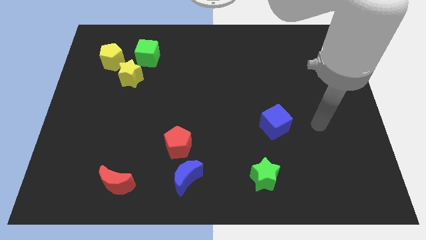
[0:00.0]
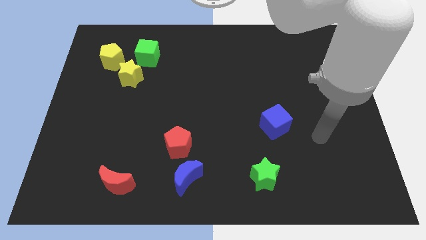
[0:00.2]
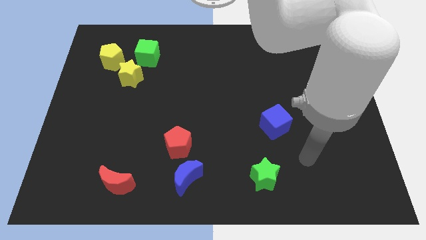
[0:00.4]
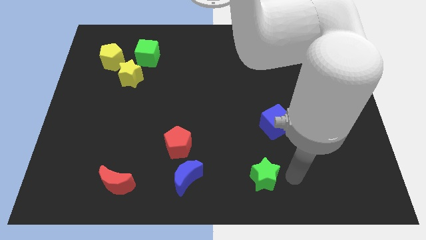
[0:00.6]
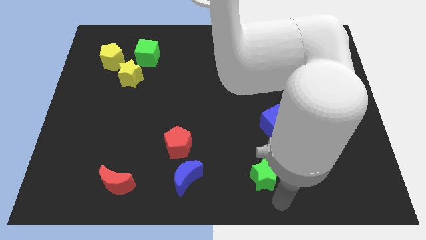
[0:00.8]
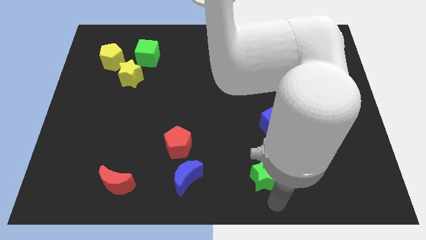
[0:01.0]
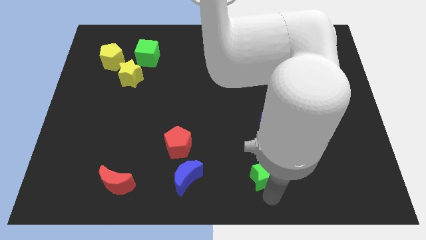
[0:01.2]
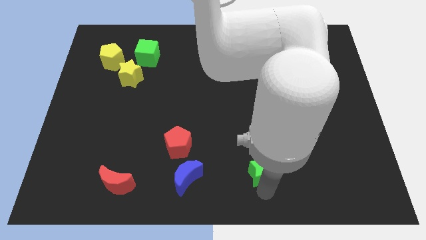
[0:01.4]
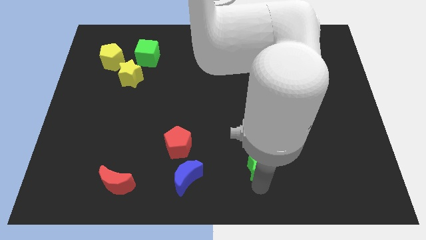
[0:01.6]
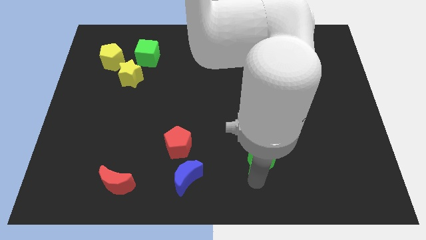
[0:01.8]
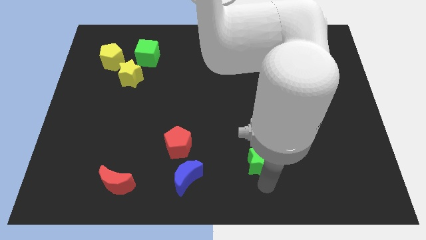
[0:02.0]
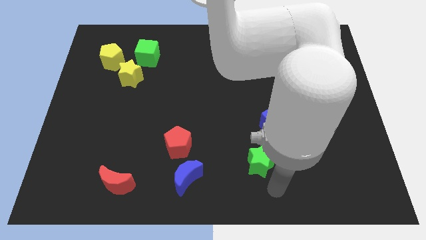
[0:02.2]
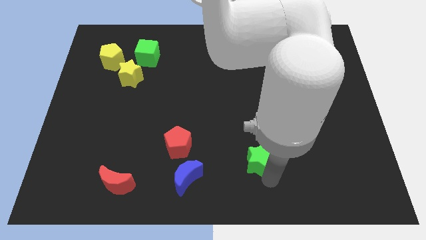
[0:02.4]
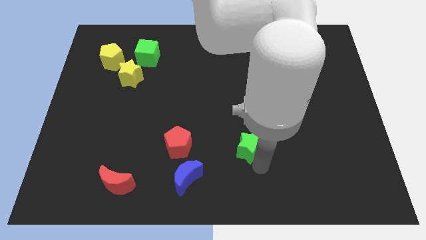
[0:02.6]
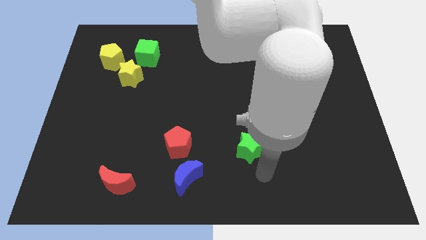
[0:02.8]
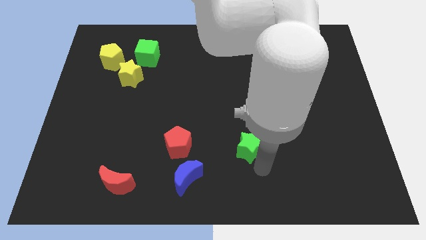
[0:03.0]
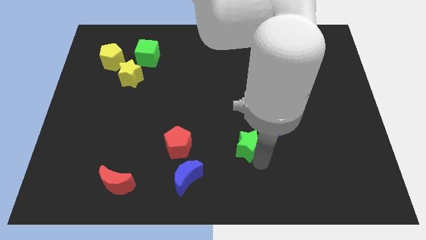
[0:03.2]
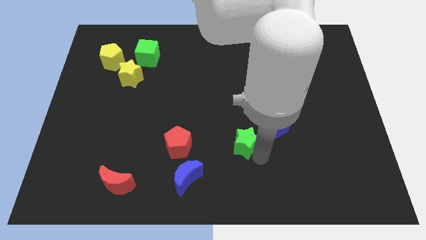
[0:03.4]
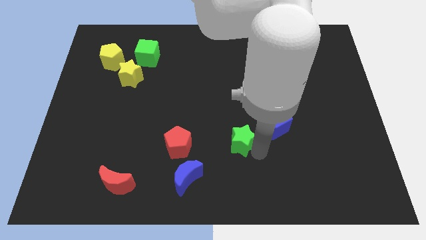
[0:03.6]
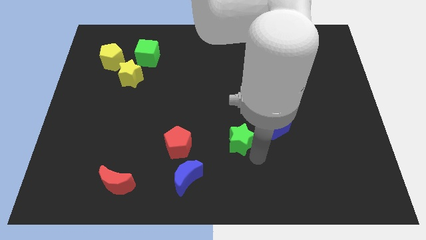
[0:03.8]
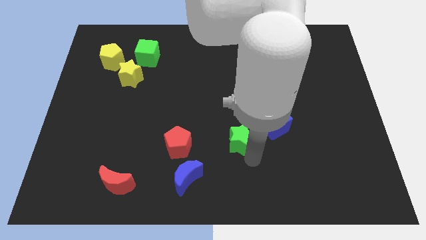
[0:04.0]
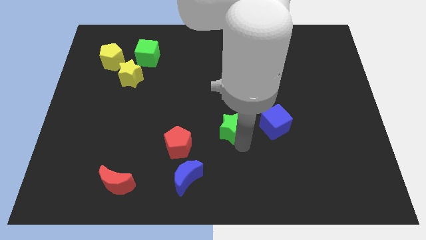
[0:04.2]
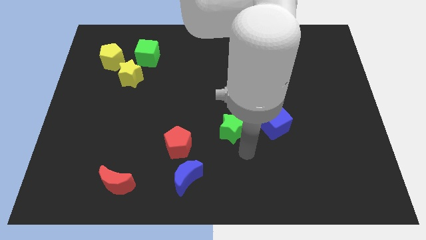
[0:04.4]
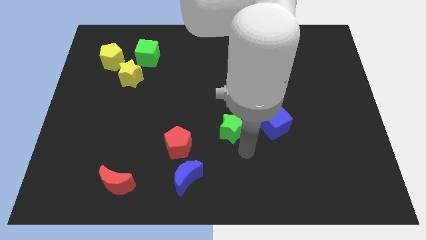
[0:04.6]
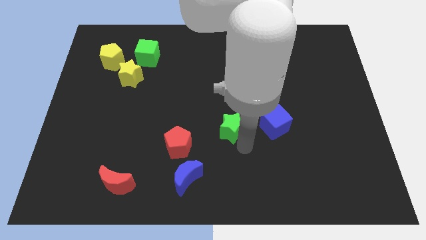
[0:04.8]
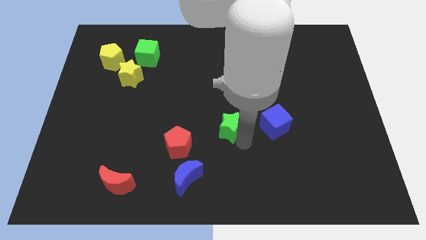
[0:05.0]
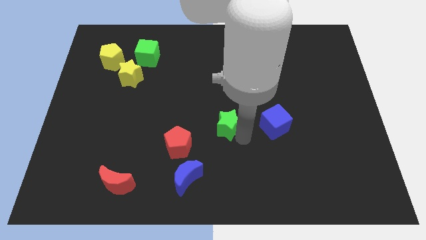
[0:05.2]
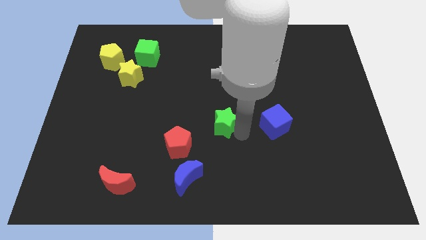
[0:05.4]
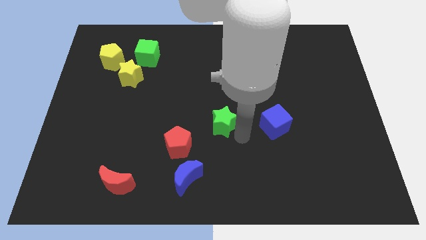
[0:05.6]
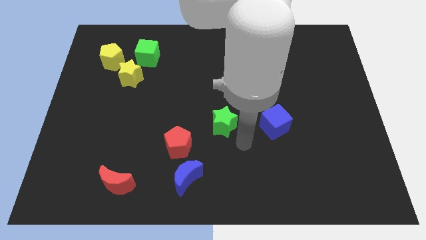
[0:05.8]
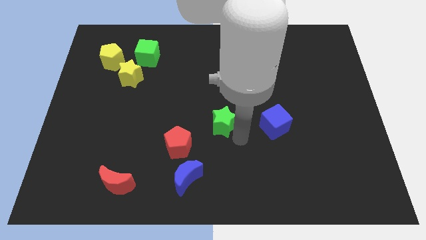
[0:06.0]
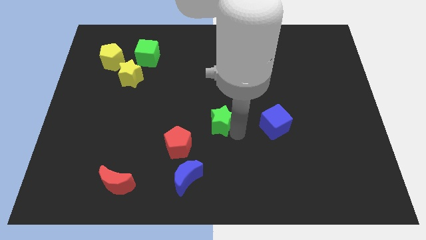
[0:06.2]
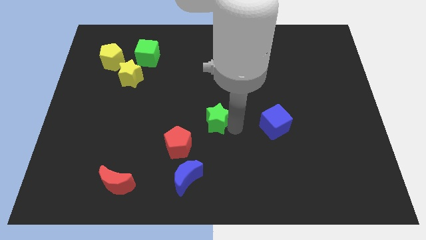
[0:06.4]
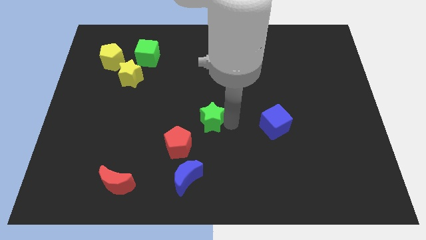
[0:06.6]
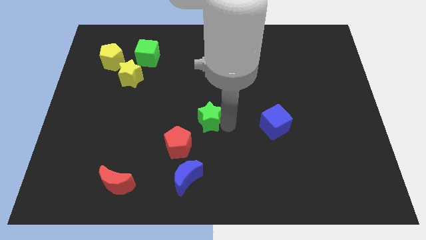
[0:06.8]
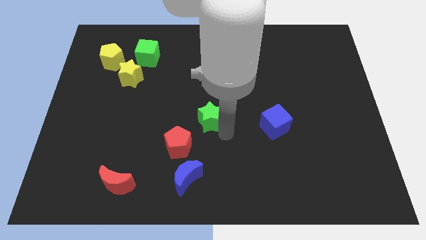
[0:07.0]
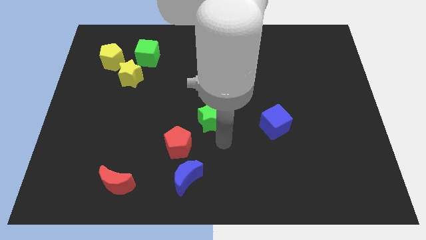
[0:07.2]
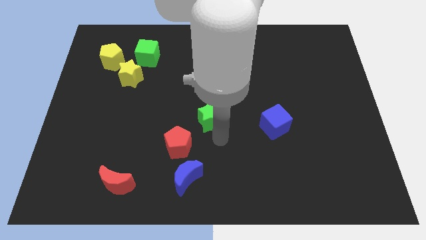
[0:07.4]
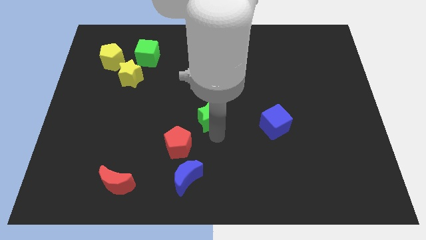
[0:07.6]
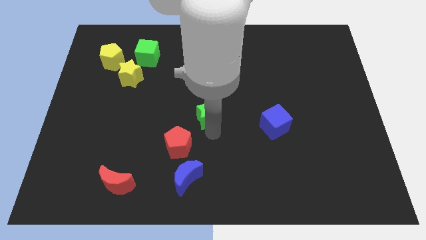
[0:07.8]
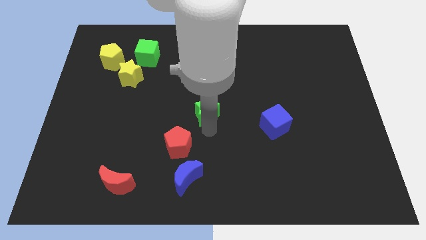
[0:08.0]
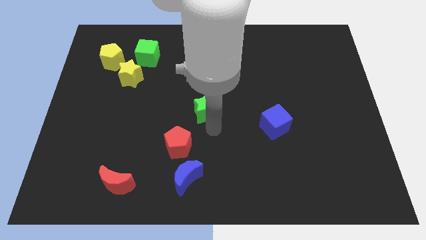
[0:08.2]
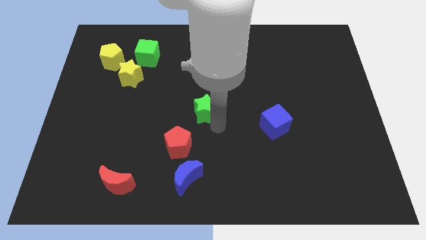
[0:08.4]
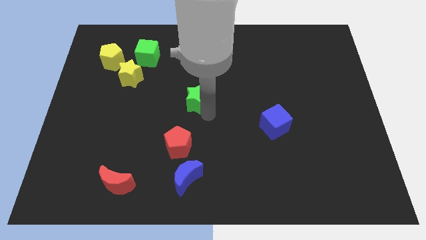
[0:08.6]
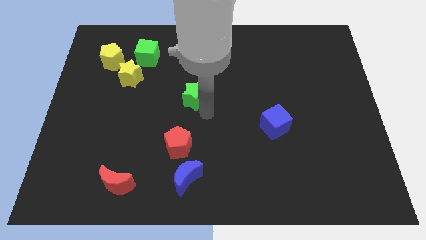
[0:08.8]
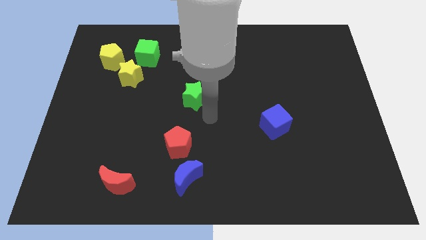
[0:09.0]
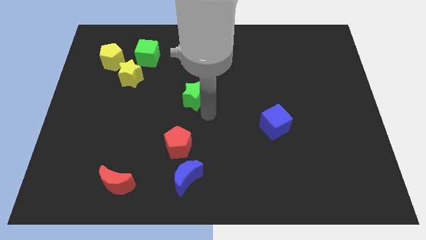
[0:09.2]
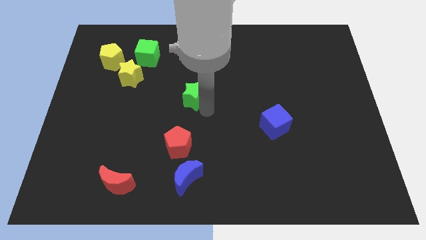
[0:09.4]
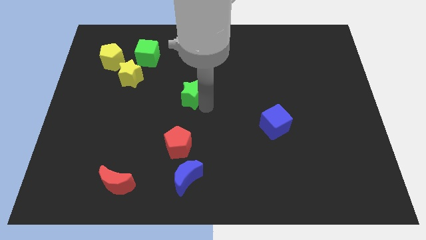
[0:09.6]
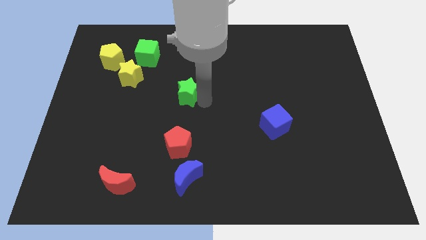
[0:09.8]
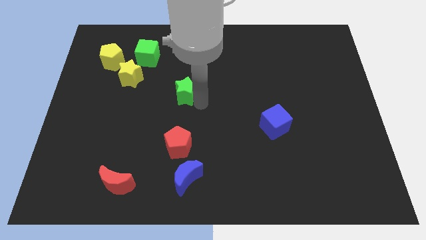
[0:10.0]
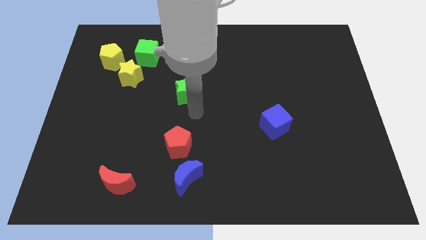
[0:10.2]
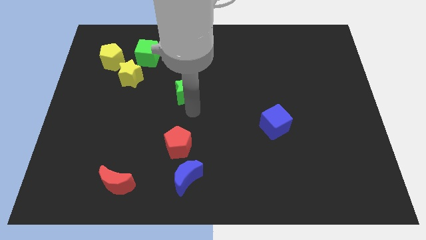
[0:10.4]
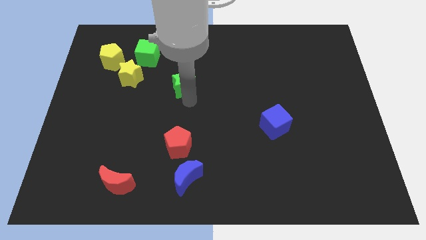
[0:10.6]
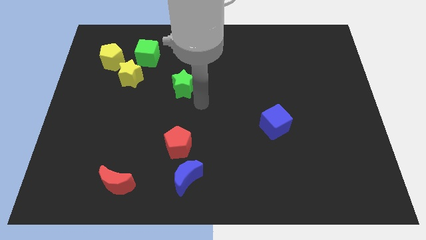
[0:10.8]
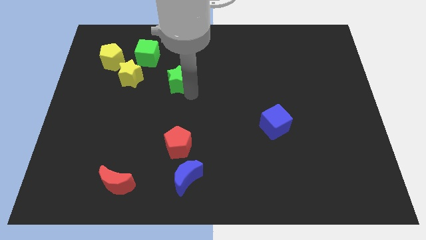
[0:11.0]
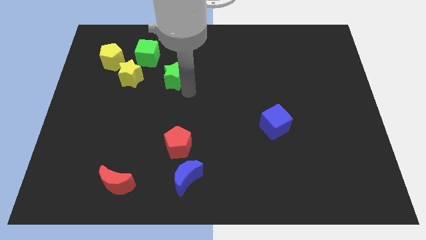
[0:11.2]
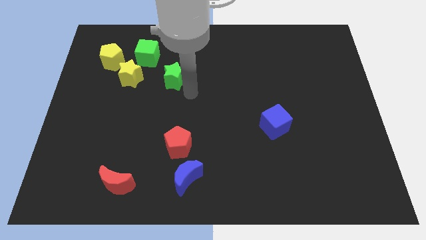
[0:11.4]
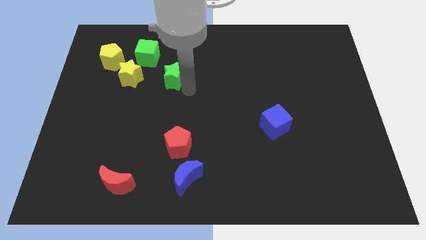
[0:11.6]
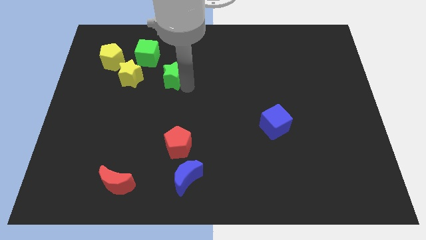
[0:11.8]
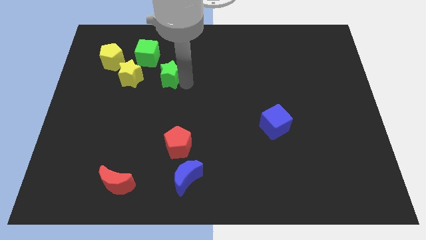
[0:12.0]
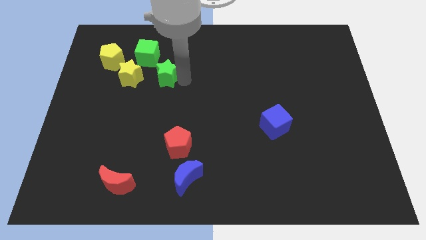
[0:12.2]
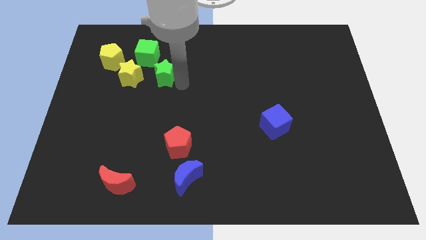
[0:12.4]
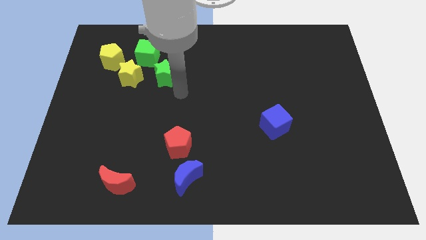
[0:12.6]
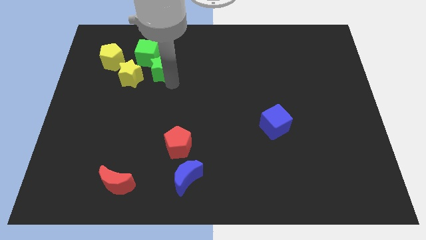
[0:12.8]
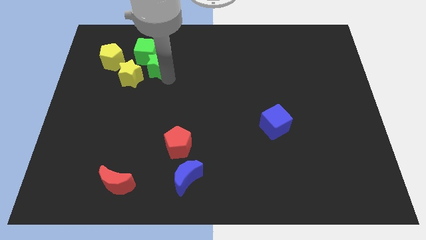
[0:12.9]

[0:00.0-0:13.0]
slide the green star close to the green cube
